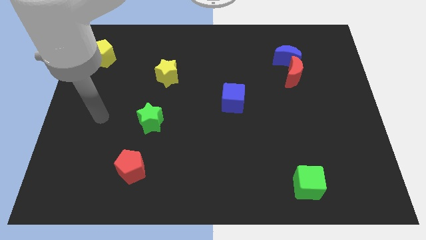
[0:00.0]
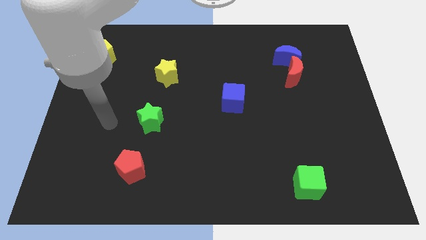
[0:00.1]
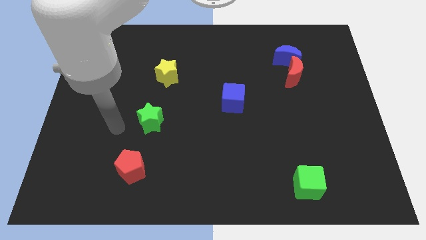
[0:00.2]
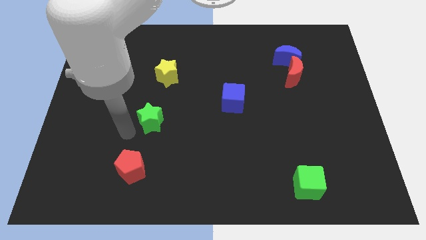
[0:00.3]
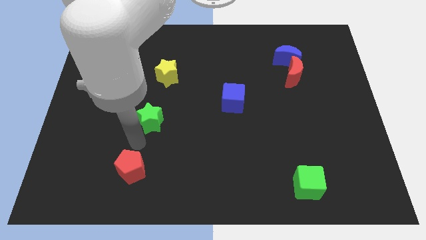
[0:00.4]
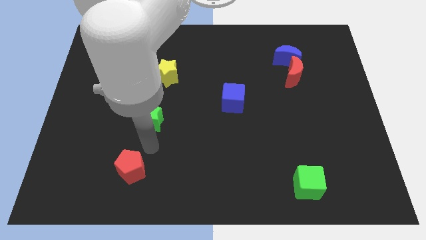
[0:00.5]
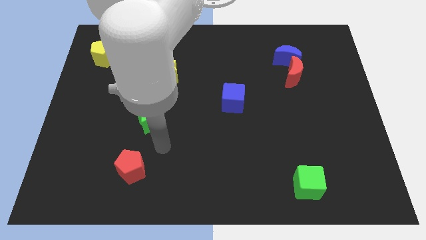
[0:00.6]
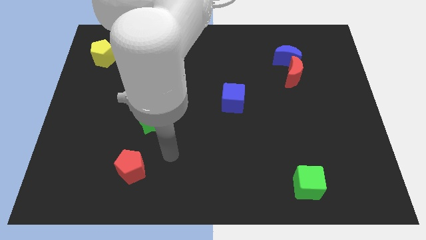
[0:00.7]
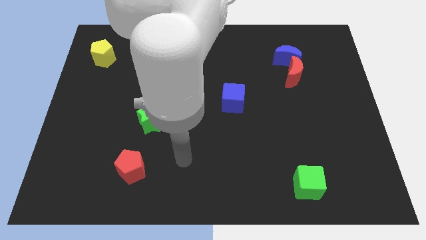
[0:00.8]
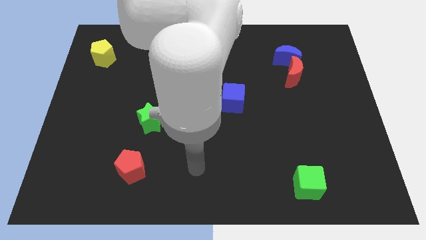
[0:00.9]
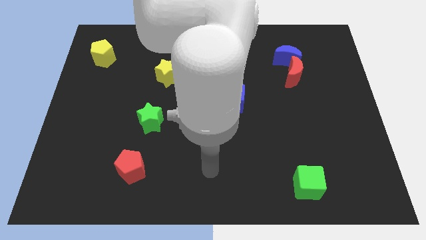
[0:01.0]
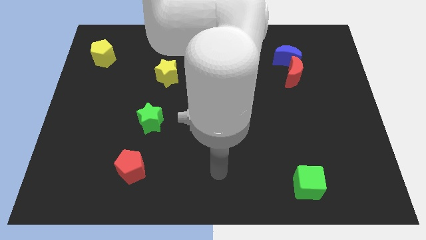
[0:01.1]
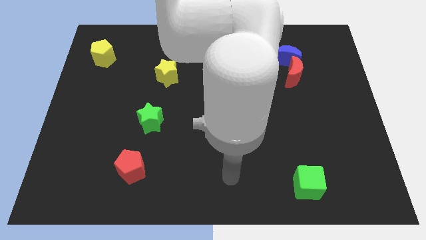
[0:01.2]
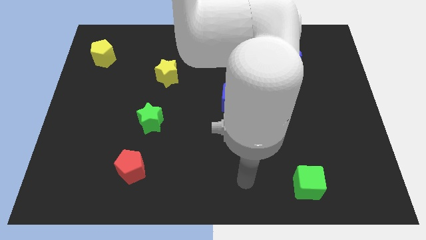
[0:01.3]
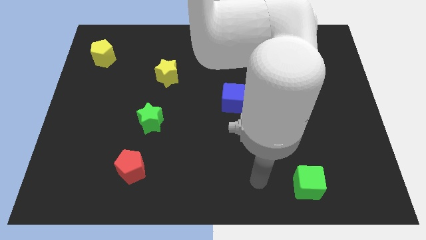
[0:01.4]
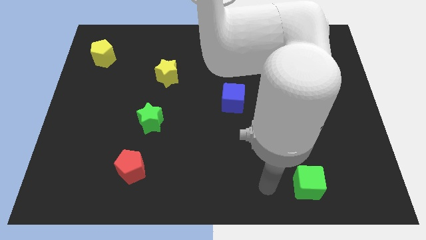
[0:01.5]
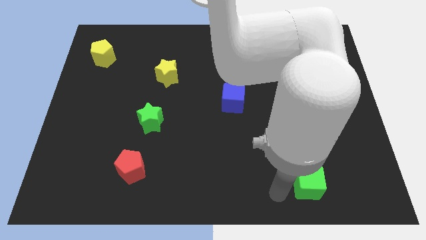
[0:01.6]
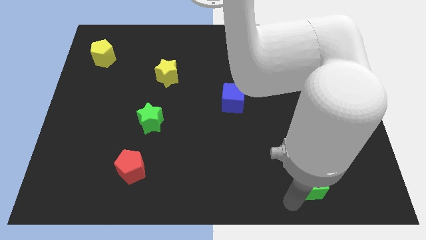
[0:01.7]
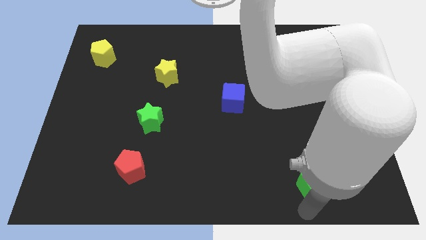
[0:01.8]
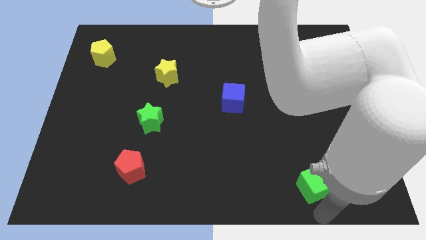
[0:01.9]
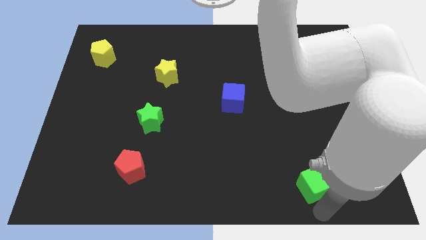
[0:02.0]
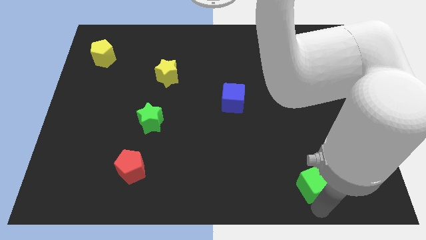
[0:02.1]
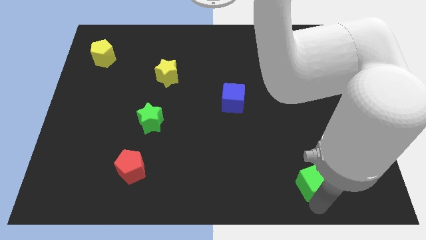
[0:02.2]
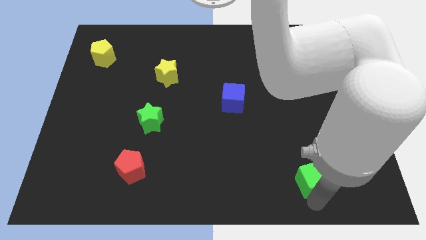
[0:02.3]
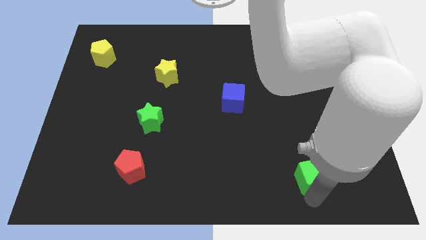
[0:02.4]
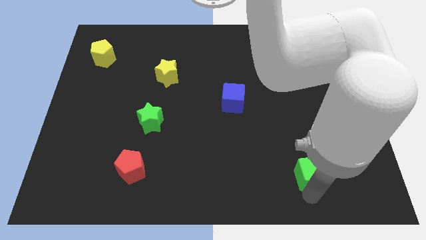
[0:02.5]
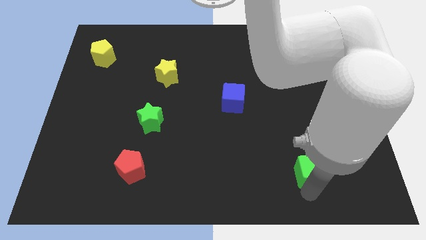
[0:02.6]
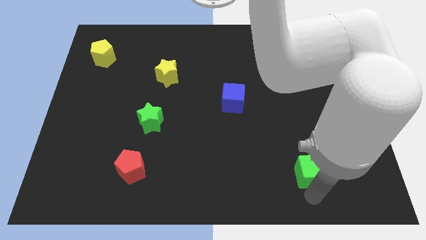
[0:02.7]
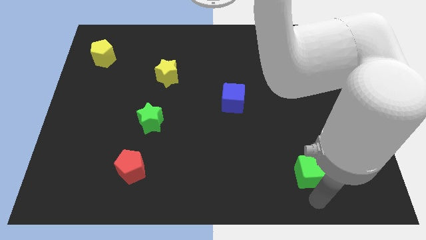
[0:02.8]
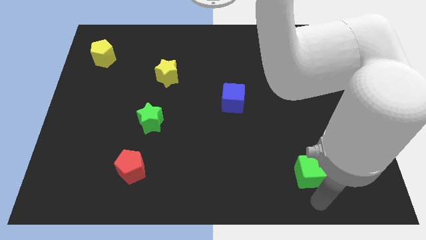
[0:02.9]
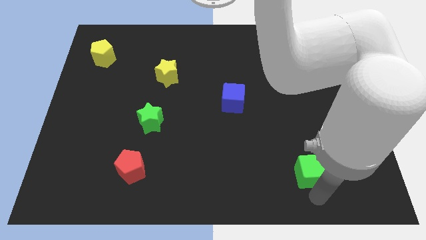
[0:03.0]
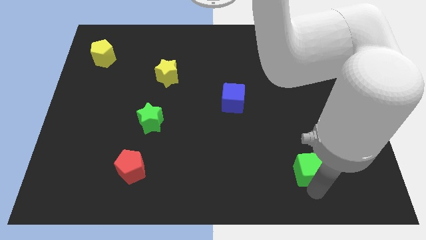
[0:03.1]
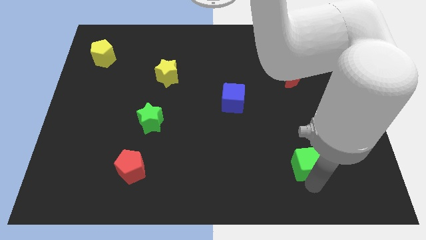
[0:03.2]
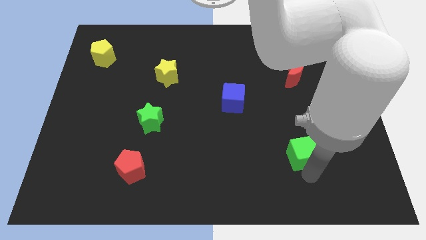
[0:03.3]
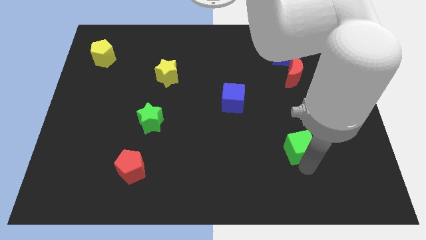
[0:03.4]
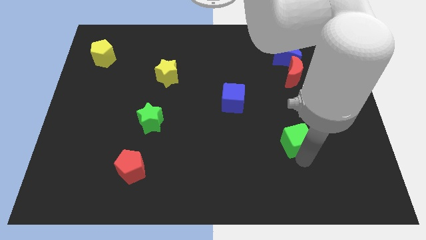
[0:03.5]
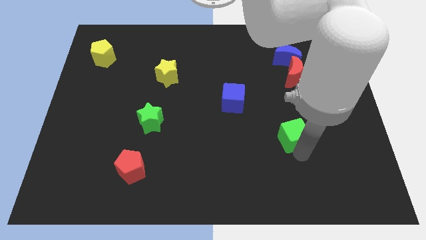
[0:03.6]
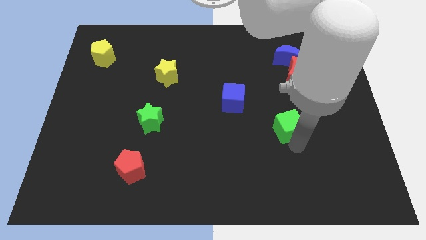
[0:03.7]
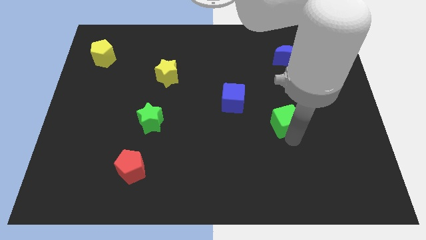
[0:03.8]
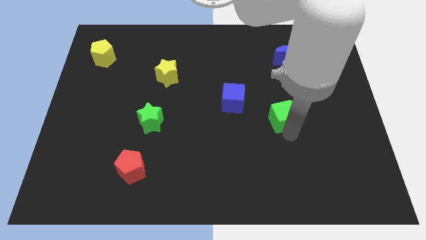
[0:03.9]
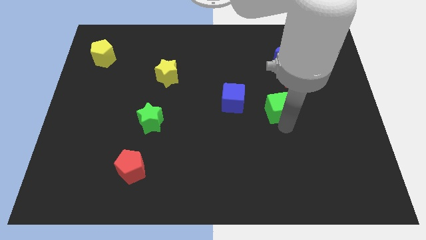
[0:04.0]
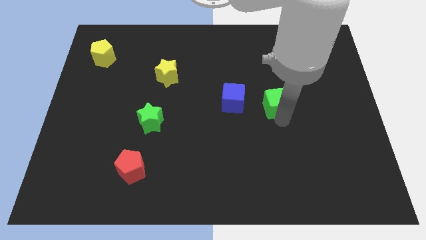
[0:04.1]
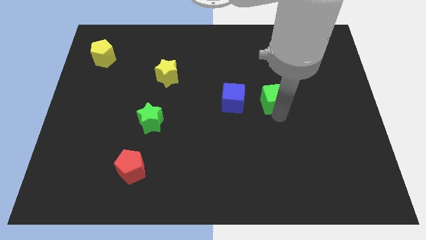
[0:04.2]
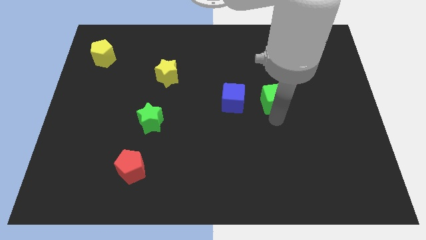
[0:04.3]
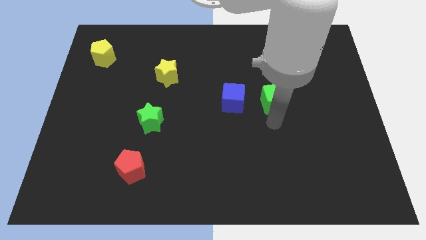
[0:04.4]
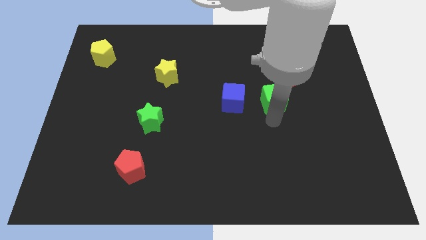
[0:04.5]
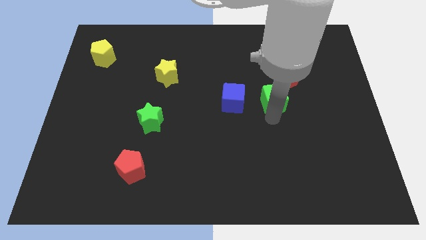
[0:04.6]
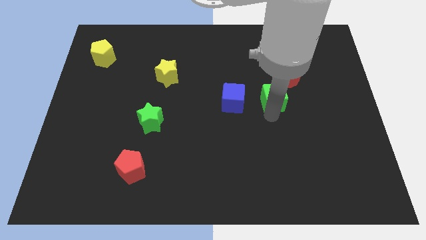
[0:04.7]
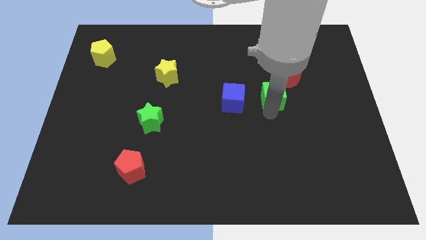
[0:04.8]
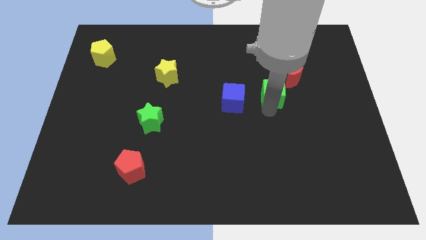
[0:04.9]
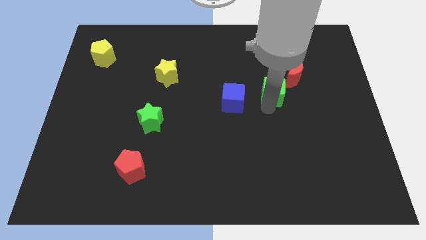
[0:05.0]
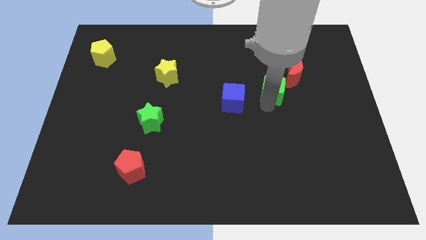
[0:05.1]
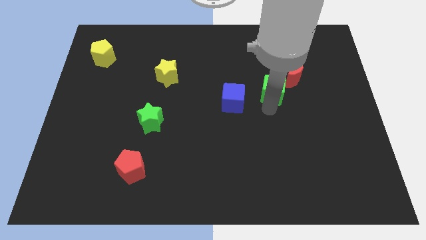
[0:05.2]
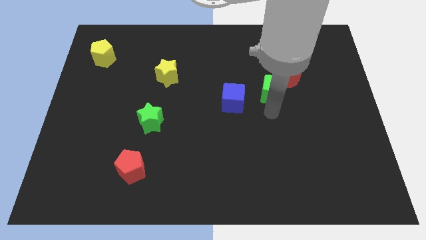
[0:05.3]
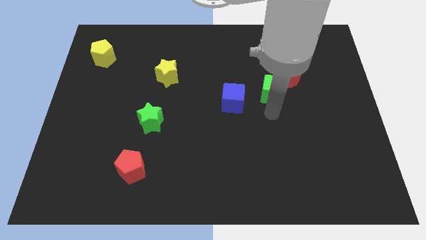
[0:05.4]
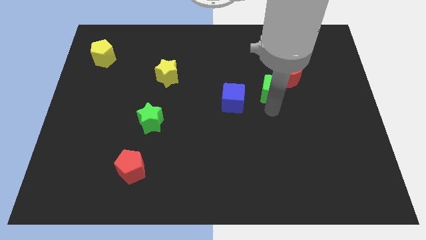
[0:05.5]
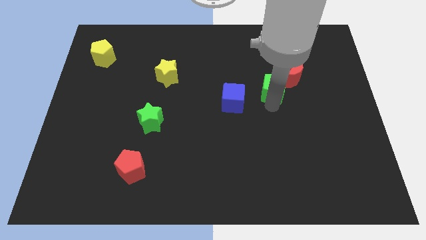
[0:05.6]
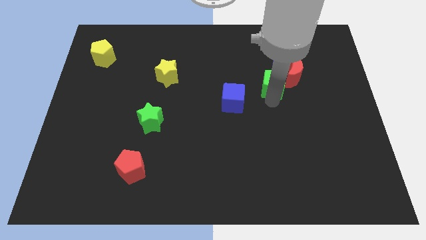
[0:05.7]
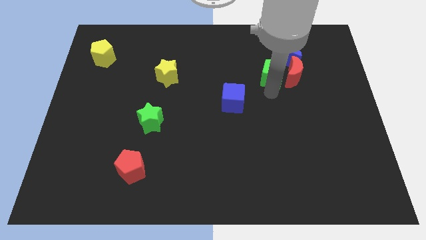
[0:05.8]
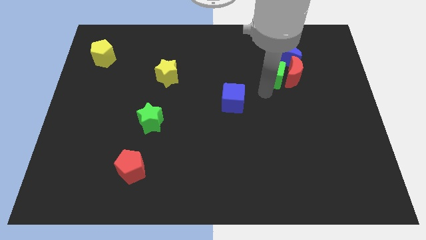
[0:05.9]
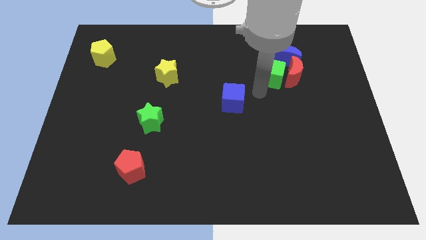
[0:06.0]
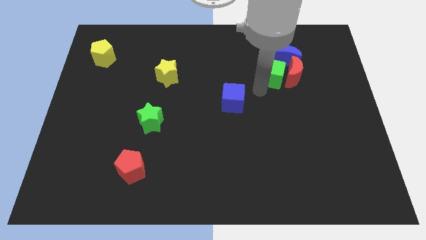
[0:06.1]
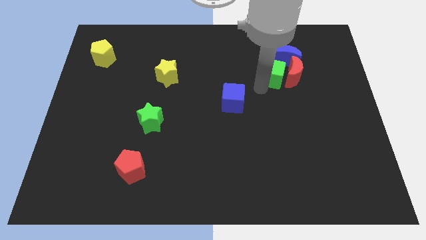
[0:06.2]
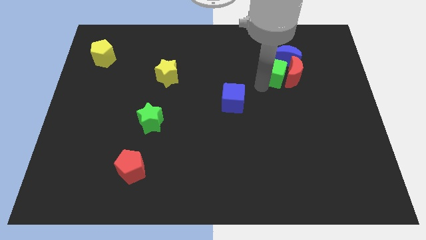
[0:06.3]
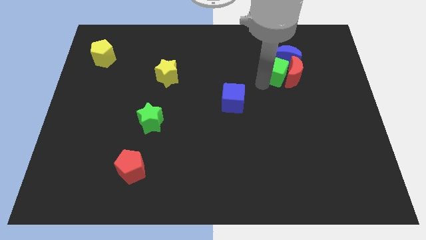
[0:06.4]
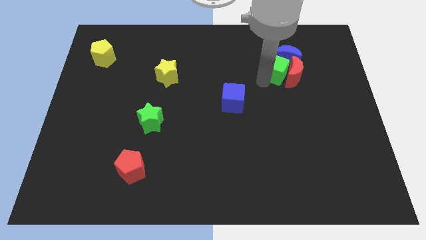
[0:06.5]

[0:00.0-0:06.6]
slide the green cube towards the blue moon

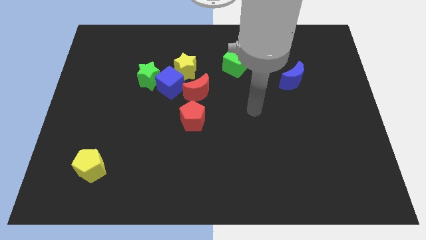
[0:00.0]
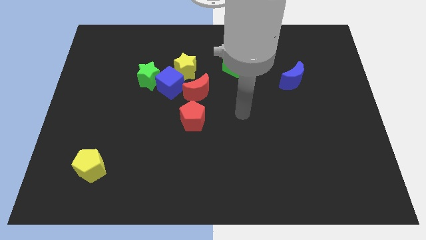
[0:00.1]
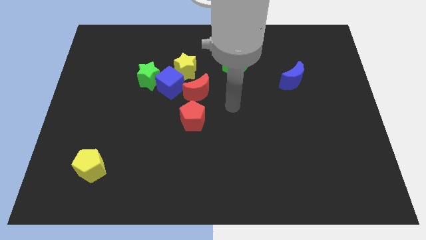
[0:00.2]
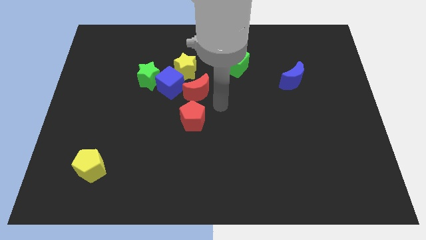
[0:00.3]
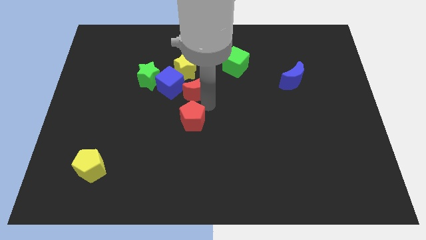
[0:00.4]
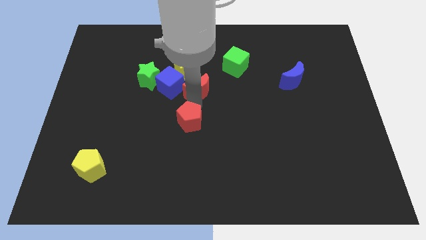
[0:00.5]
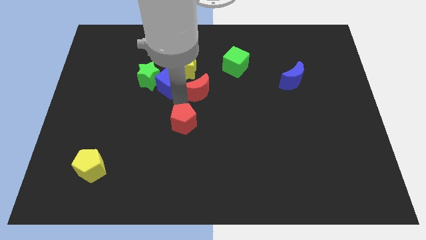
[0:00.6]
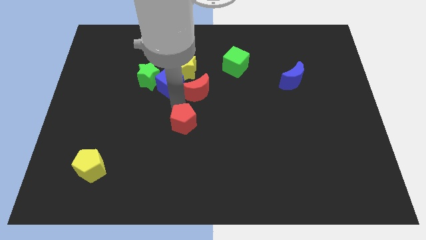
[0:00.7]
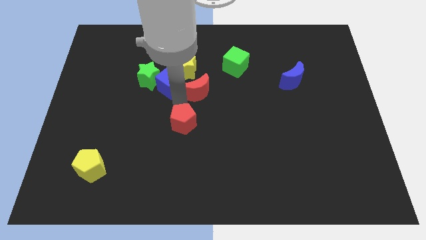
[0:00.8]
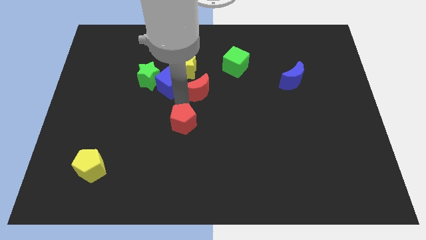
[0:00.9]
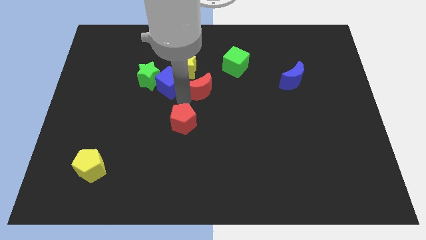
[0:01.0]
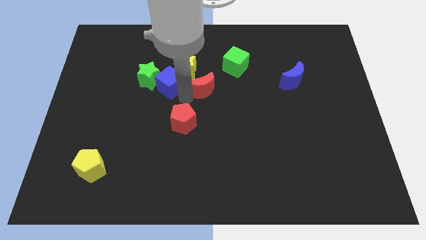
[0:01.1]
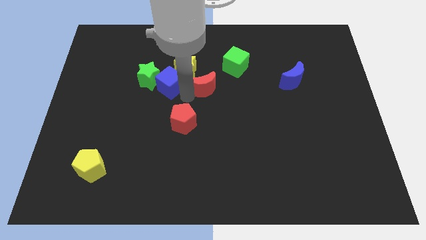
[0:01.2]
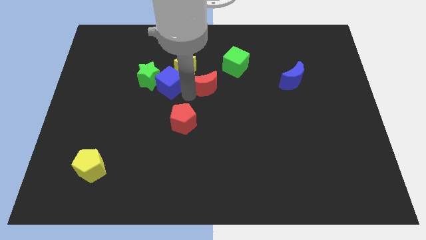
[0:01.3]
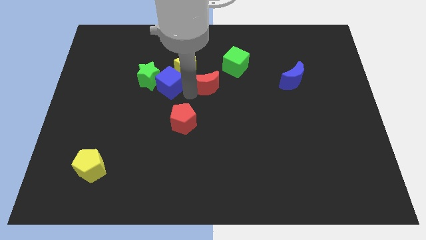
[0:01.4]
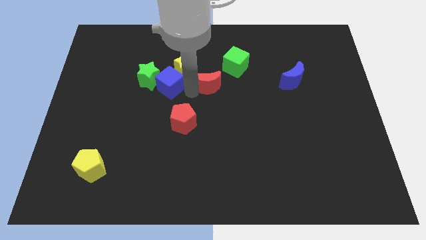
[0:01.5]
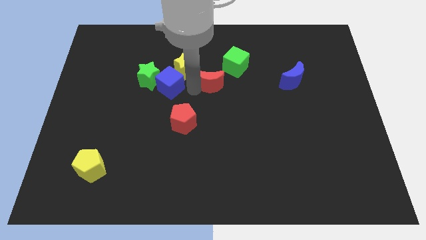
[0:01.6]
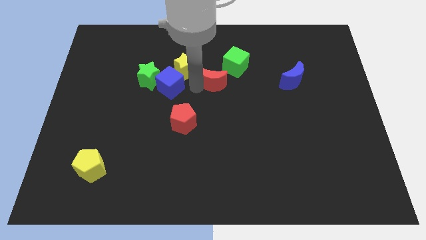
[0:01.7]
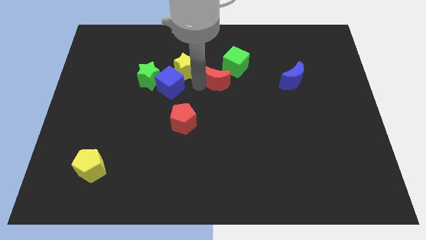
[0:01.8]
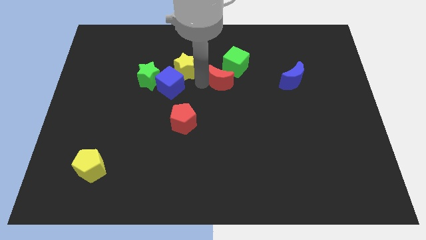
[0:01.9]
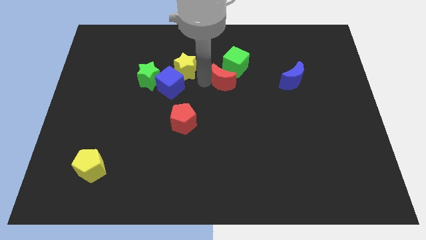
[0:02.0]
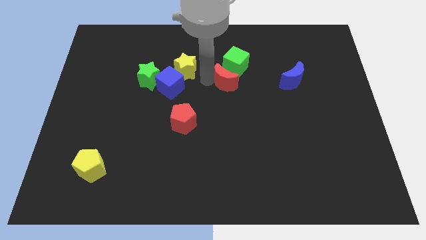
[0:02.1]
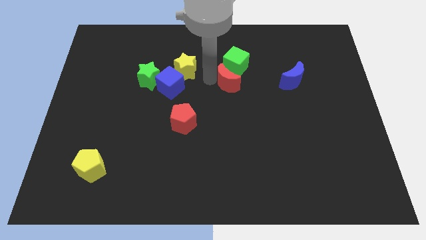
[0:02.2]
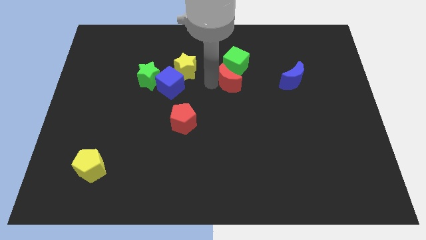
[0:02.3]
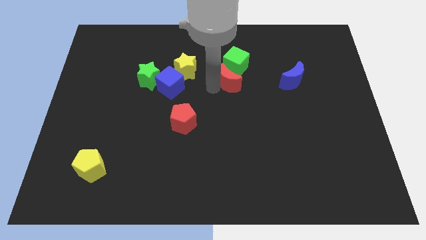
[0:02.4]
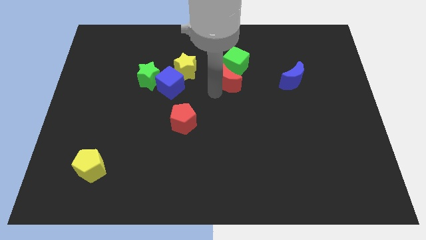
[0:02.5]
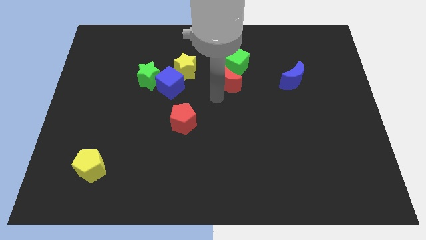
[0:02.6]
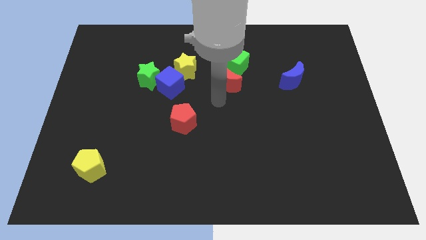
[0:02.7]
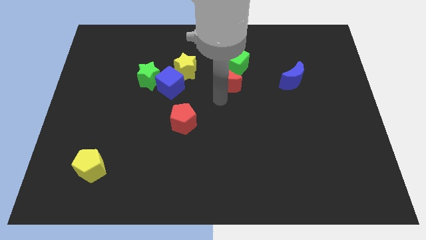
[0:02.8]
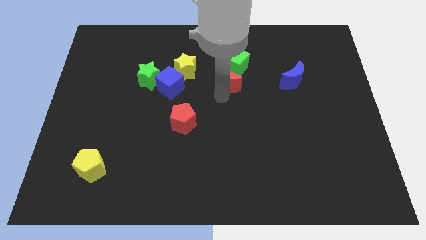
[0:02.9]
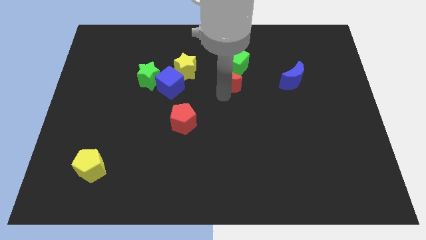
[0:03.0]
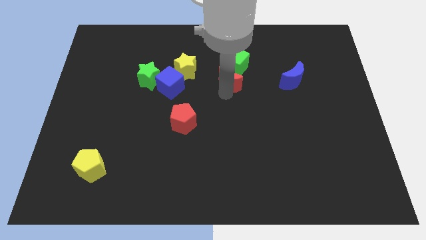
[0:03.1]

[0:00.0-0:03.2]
slide the red moon to the green cube
